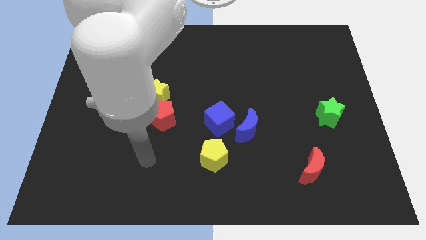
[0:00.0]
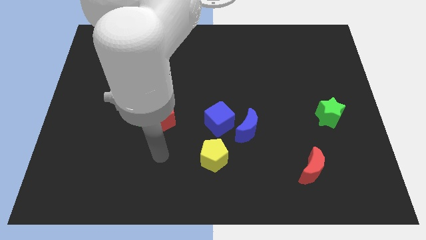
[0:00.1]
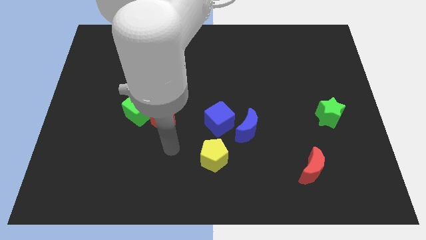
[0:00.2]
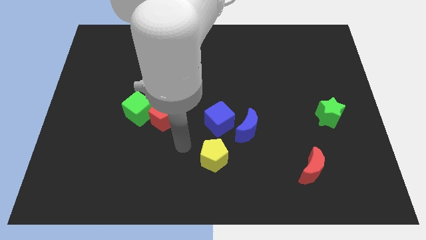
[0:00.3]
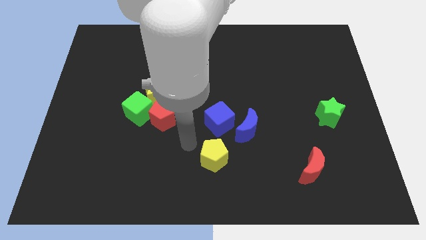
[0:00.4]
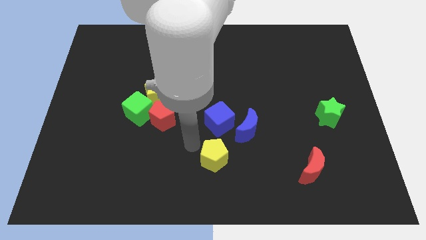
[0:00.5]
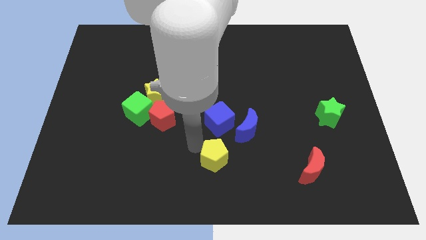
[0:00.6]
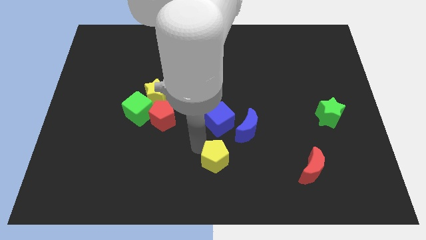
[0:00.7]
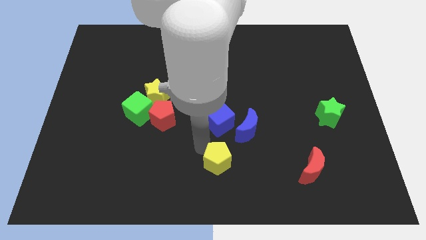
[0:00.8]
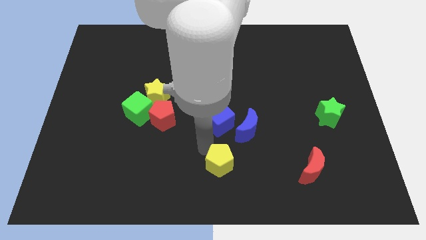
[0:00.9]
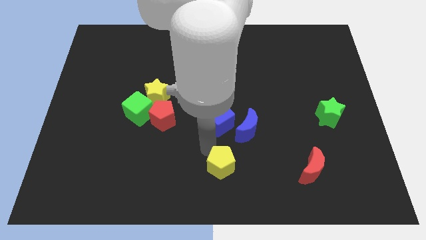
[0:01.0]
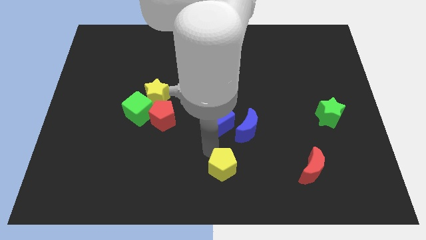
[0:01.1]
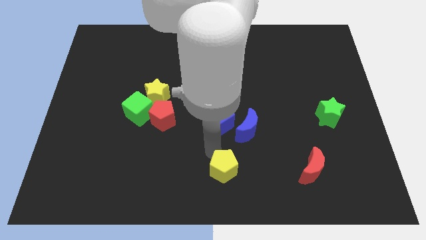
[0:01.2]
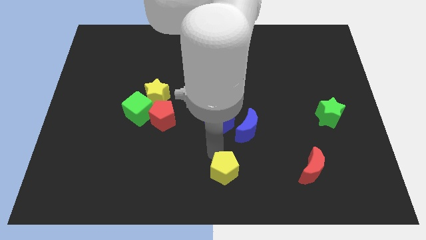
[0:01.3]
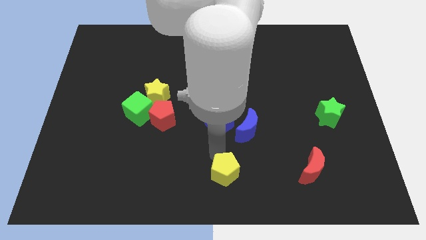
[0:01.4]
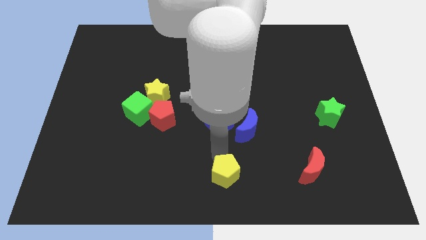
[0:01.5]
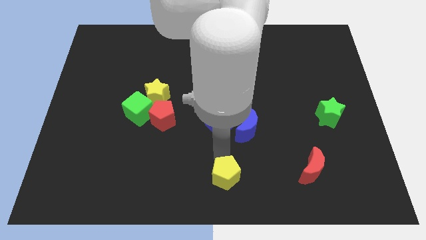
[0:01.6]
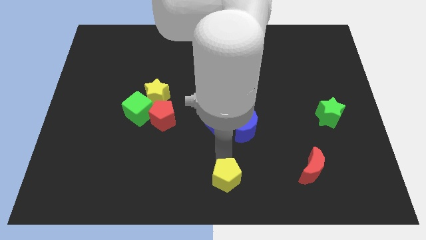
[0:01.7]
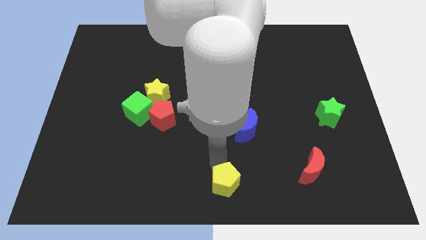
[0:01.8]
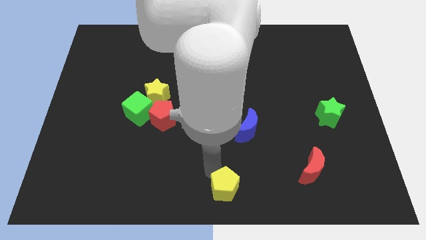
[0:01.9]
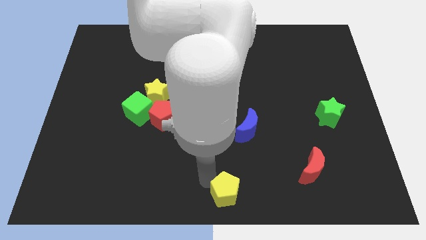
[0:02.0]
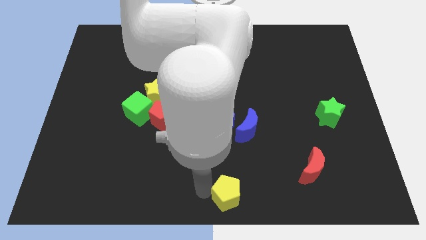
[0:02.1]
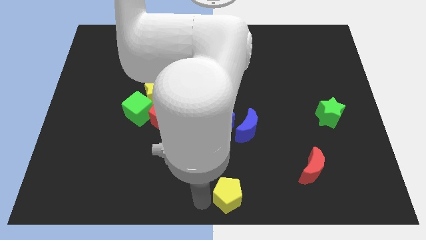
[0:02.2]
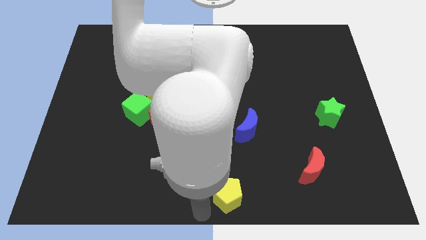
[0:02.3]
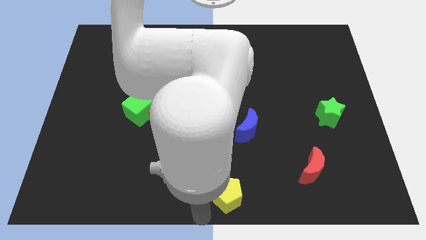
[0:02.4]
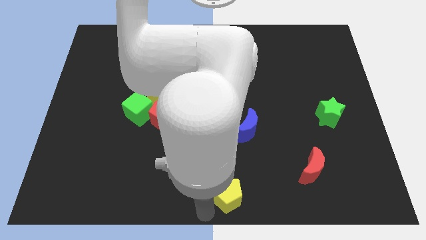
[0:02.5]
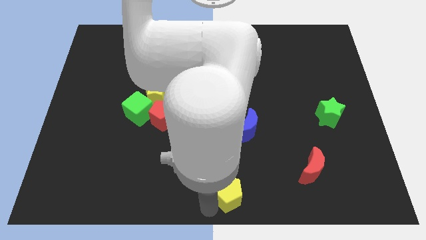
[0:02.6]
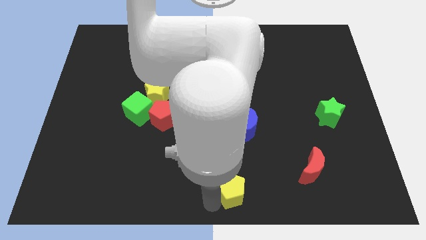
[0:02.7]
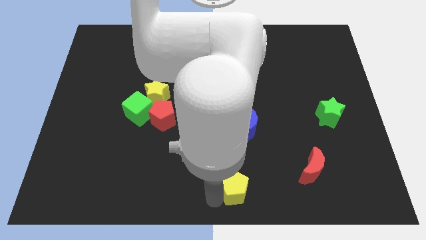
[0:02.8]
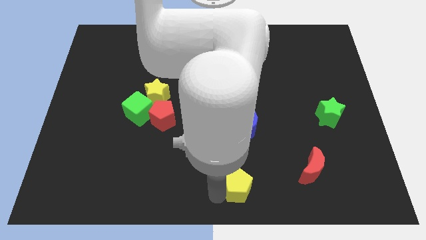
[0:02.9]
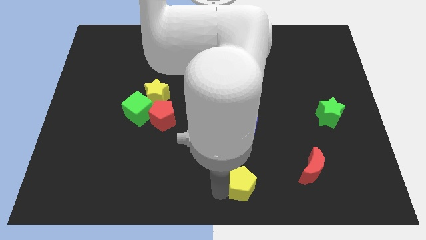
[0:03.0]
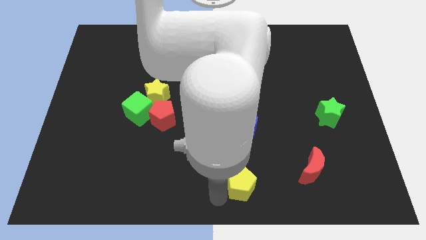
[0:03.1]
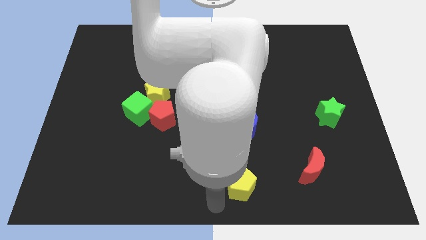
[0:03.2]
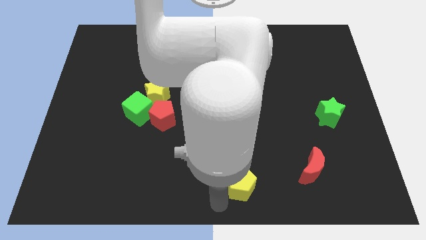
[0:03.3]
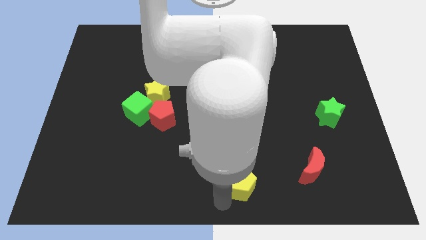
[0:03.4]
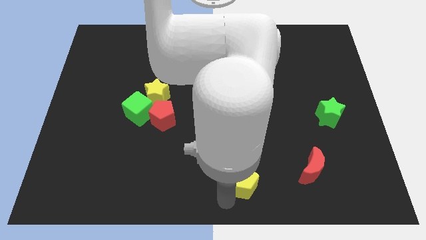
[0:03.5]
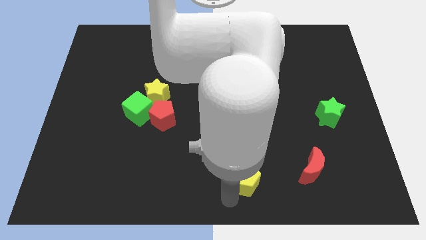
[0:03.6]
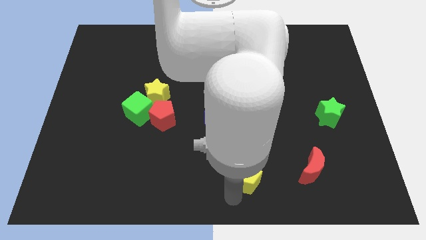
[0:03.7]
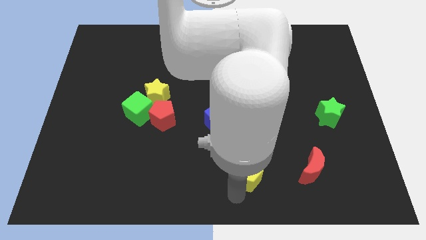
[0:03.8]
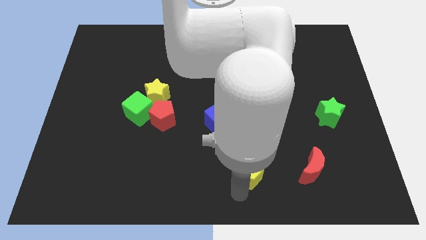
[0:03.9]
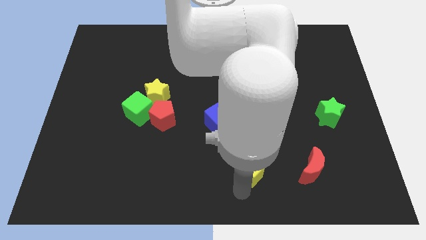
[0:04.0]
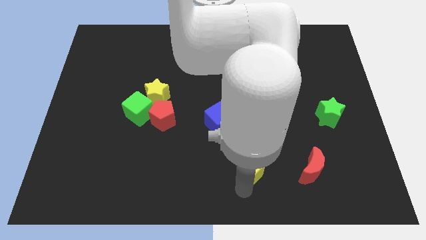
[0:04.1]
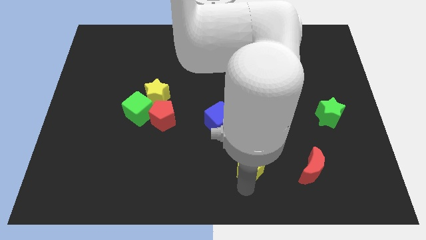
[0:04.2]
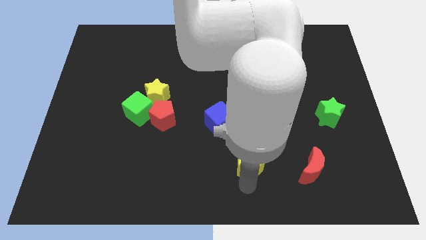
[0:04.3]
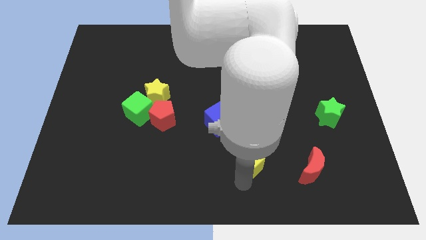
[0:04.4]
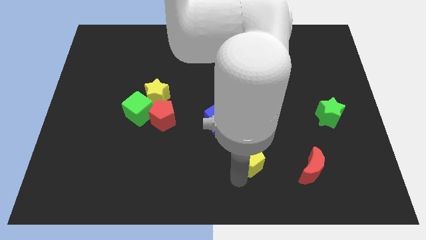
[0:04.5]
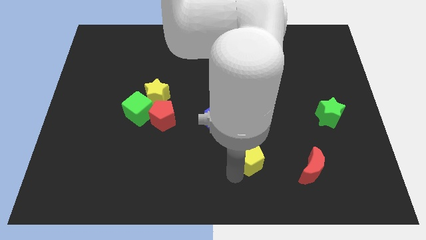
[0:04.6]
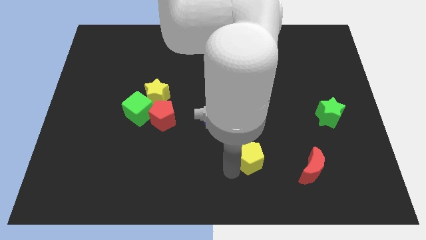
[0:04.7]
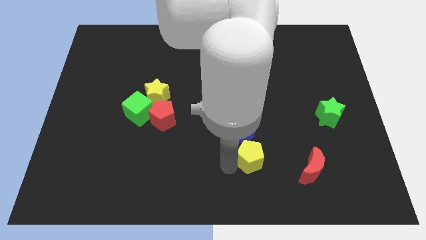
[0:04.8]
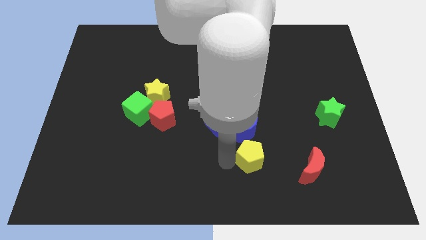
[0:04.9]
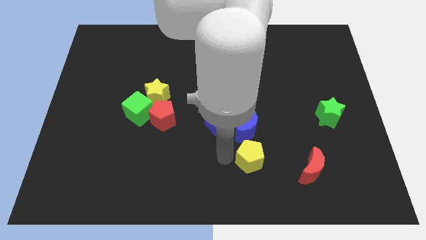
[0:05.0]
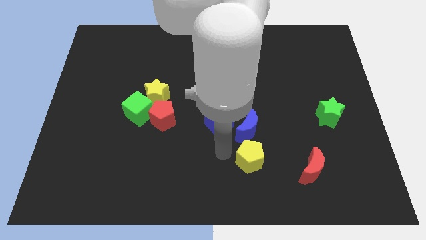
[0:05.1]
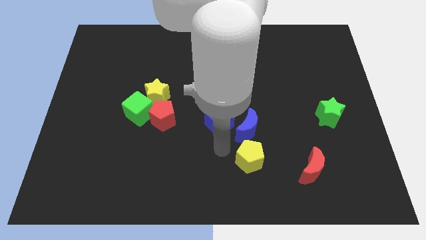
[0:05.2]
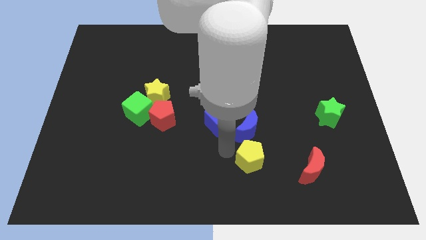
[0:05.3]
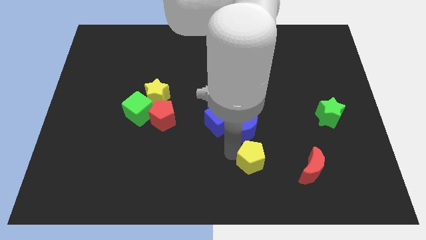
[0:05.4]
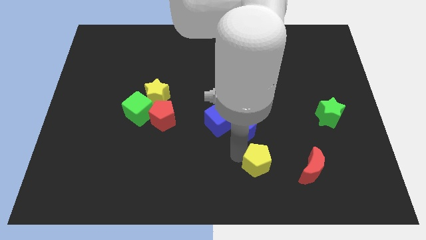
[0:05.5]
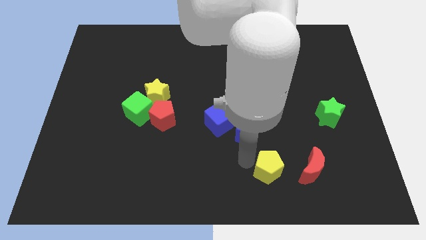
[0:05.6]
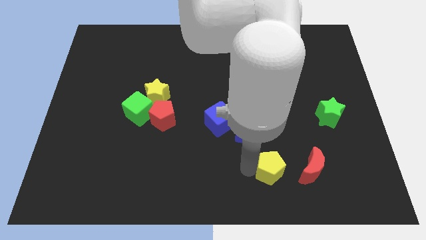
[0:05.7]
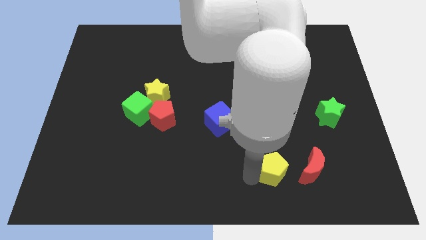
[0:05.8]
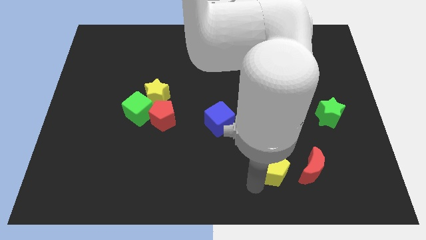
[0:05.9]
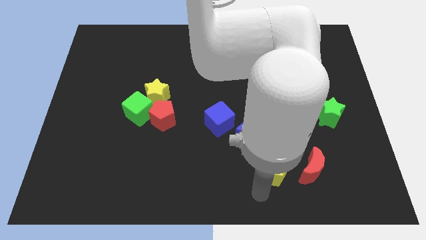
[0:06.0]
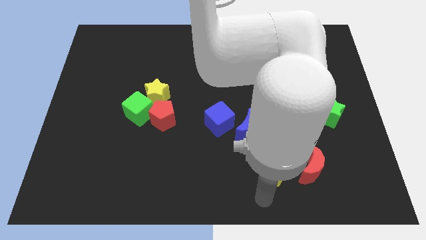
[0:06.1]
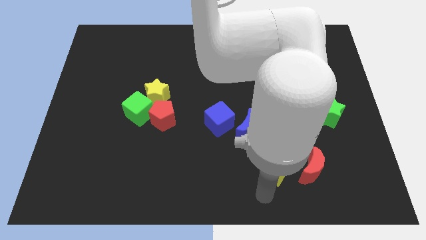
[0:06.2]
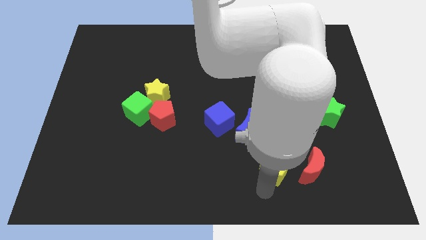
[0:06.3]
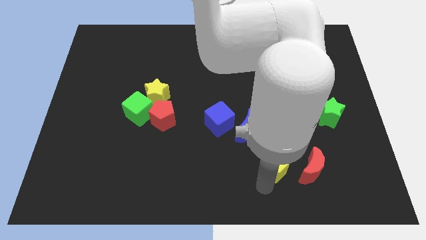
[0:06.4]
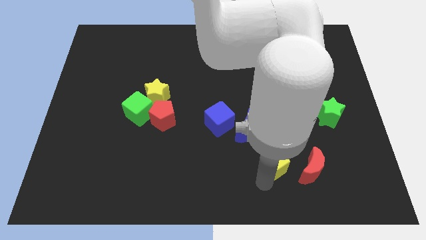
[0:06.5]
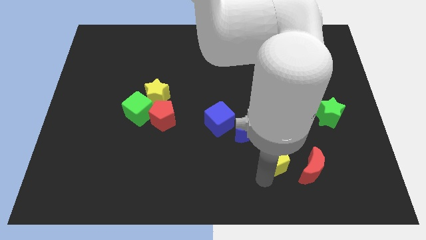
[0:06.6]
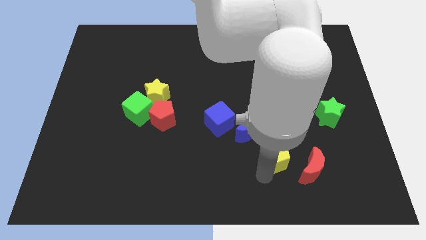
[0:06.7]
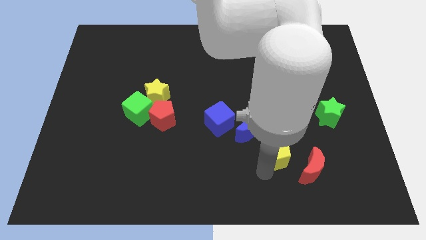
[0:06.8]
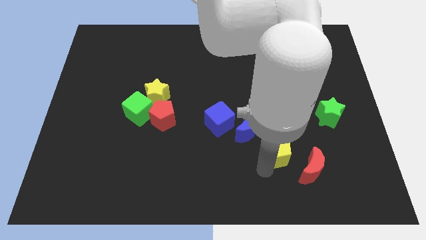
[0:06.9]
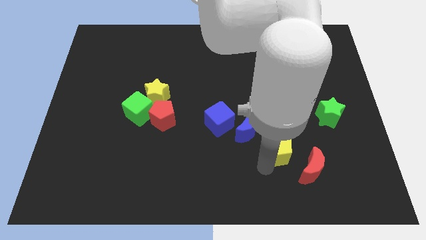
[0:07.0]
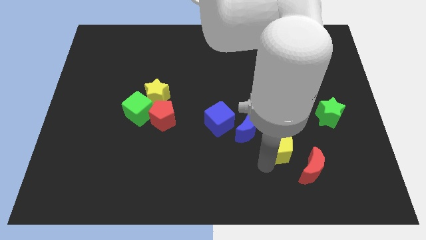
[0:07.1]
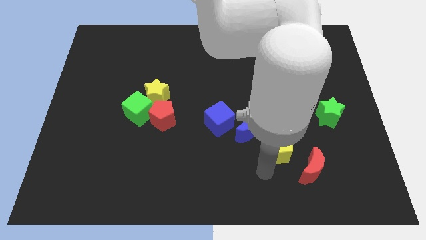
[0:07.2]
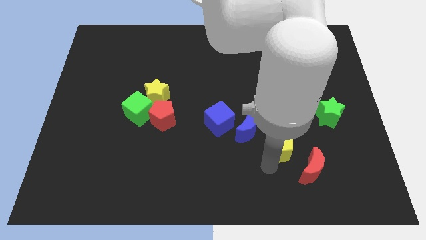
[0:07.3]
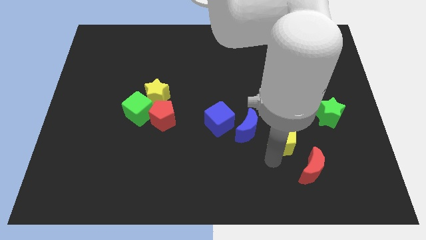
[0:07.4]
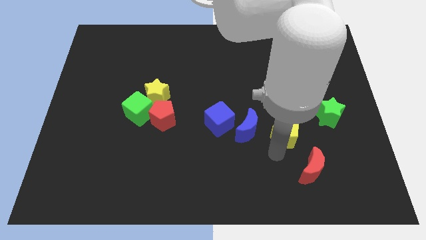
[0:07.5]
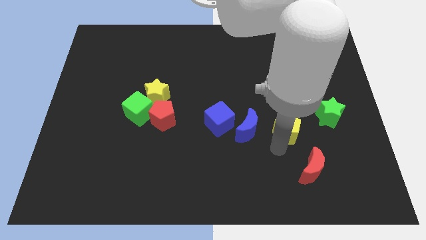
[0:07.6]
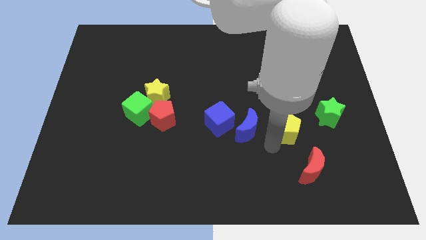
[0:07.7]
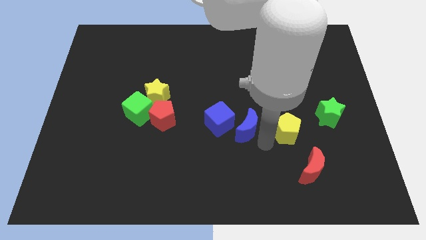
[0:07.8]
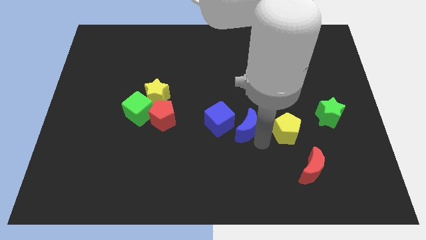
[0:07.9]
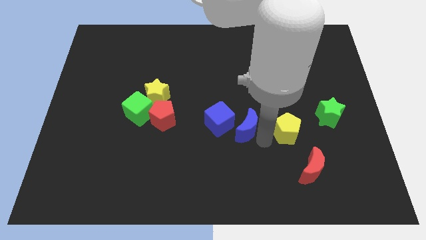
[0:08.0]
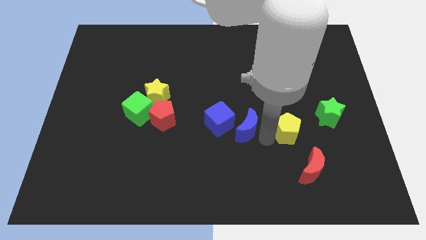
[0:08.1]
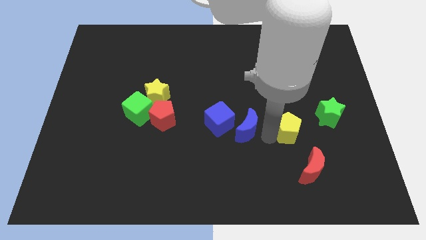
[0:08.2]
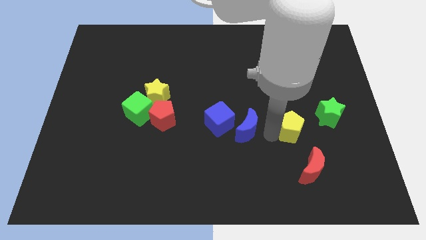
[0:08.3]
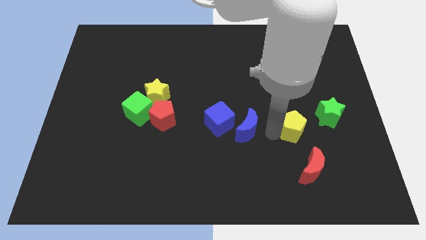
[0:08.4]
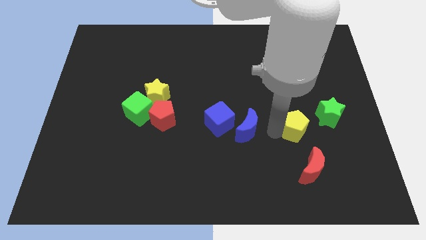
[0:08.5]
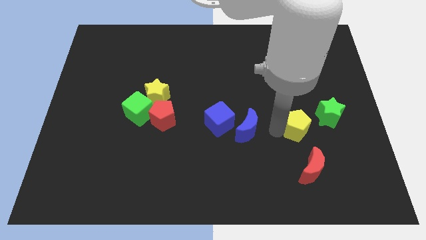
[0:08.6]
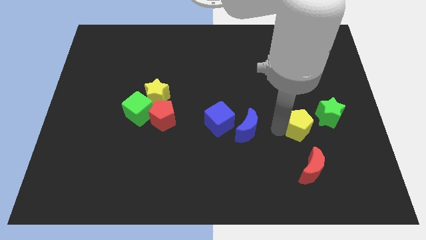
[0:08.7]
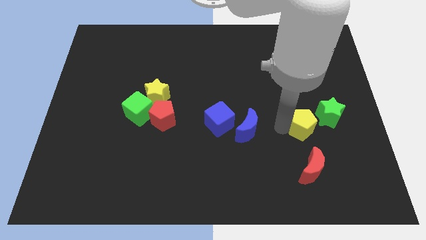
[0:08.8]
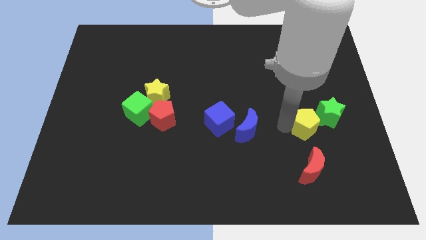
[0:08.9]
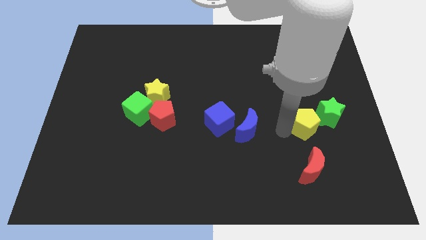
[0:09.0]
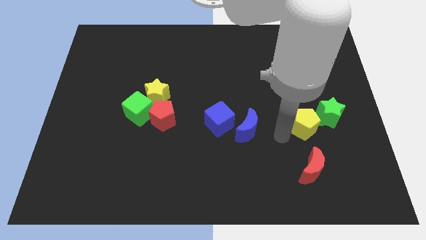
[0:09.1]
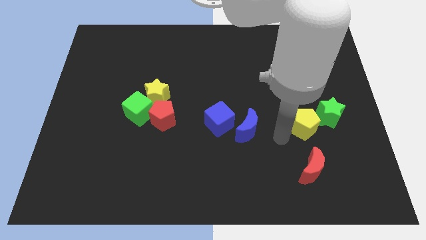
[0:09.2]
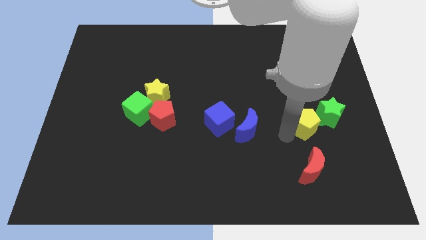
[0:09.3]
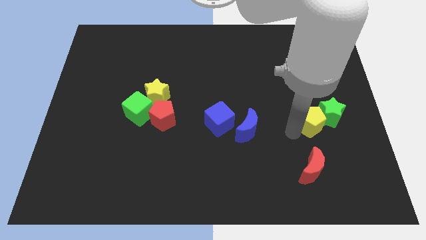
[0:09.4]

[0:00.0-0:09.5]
move the yellow pentagon to the green star
